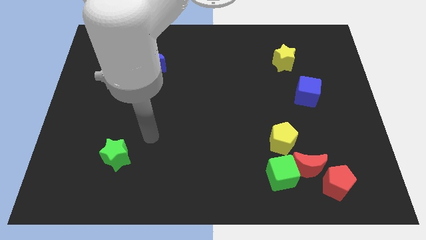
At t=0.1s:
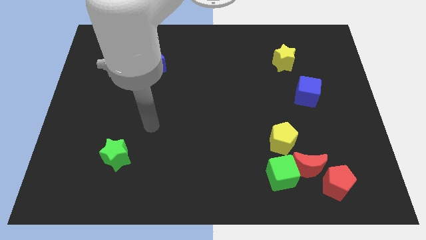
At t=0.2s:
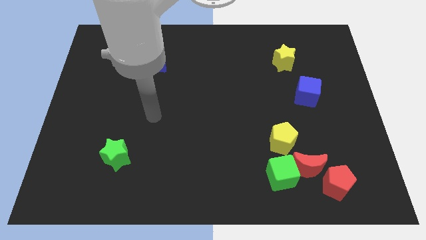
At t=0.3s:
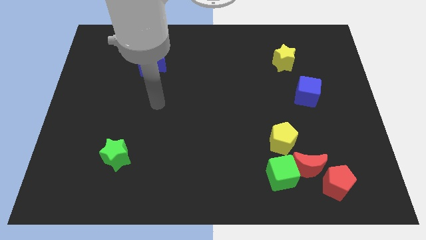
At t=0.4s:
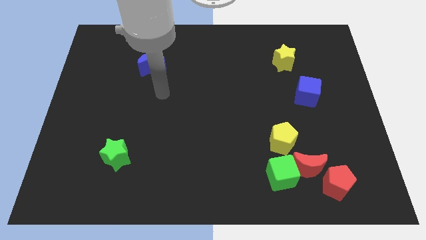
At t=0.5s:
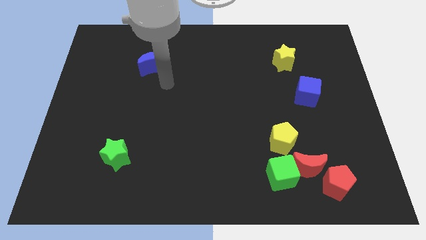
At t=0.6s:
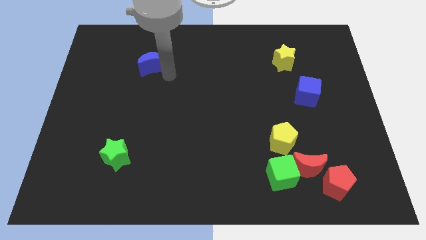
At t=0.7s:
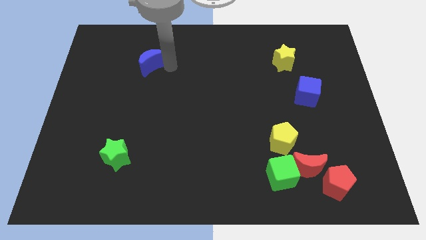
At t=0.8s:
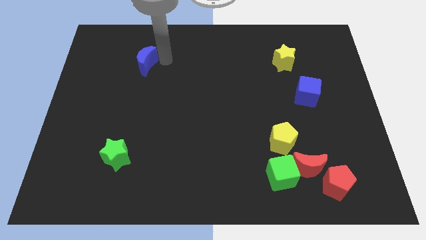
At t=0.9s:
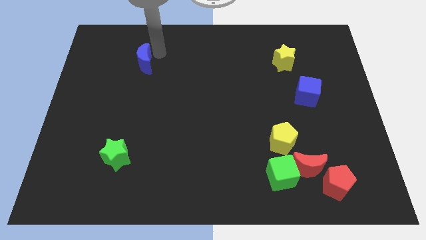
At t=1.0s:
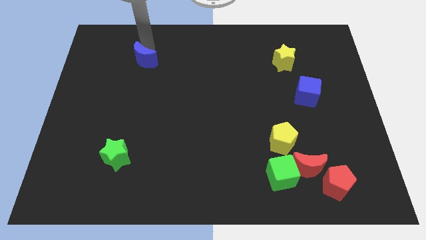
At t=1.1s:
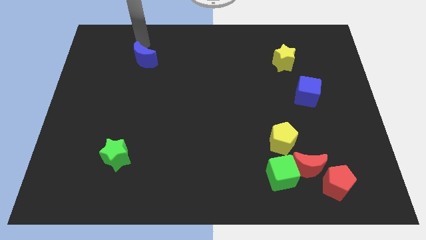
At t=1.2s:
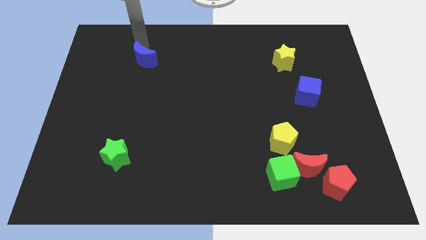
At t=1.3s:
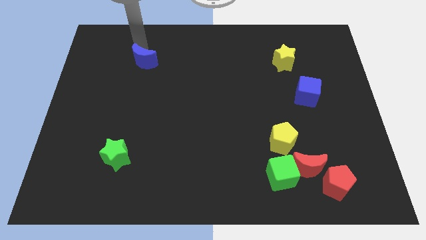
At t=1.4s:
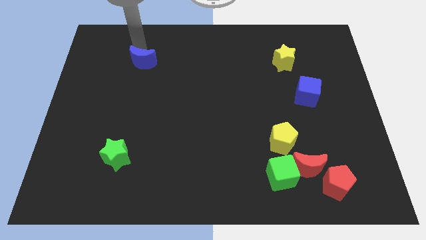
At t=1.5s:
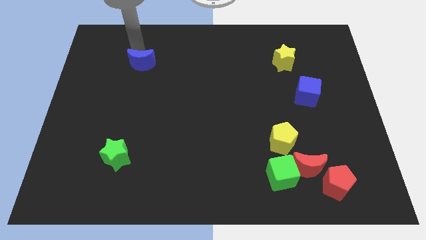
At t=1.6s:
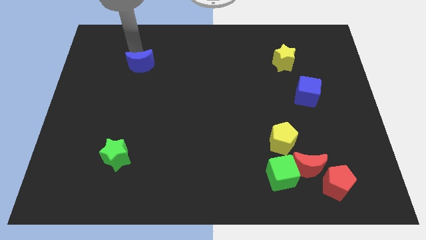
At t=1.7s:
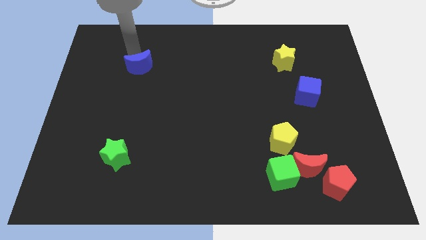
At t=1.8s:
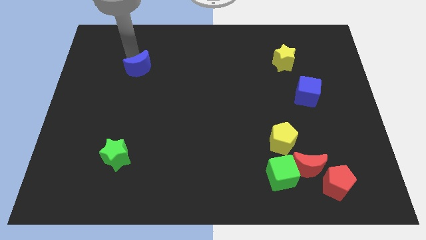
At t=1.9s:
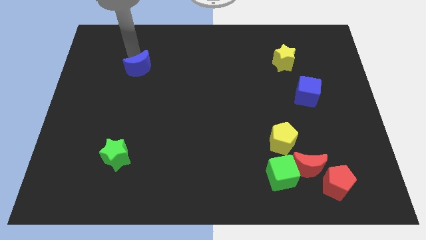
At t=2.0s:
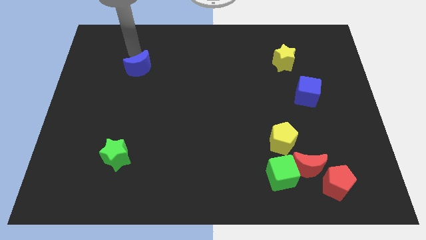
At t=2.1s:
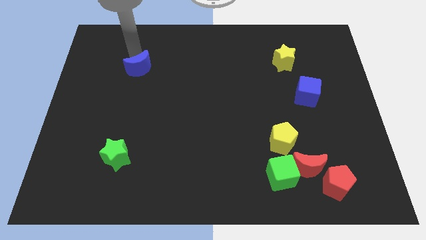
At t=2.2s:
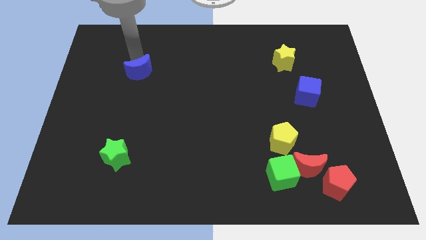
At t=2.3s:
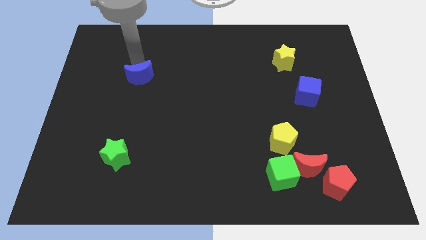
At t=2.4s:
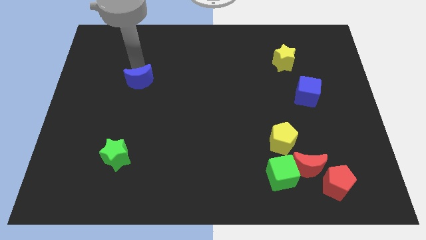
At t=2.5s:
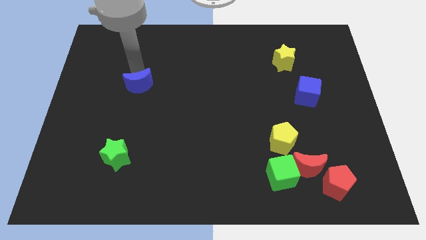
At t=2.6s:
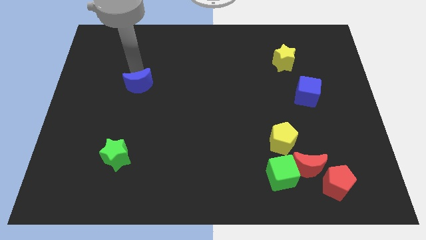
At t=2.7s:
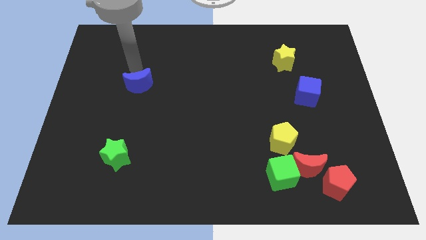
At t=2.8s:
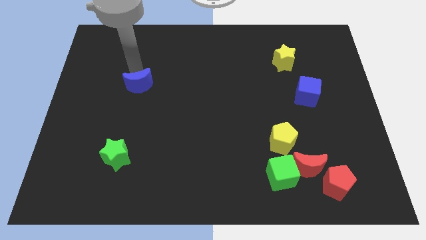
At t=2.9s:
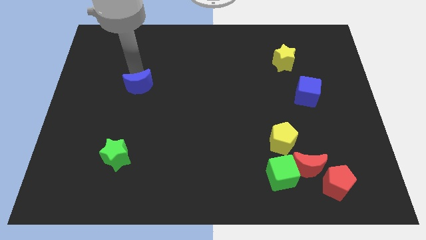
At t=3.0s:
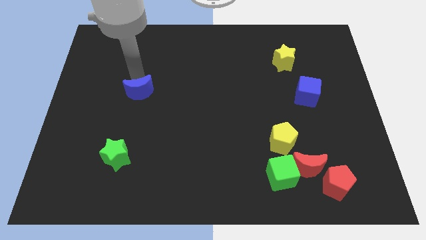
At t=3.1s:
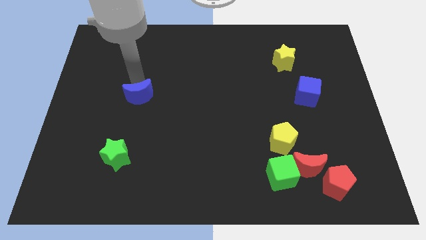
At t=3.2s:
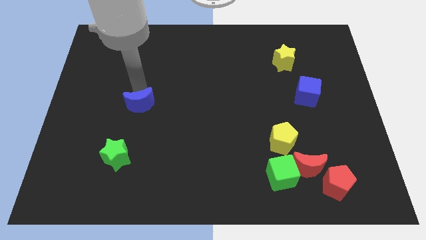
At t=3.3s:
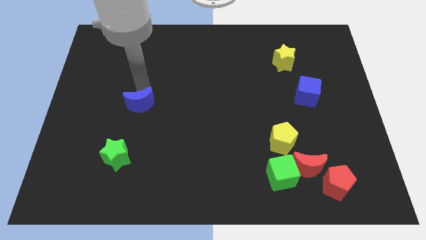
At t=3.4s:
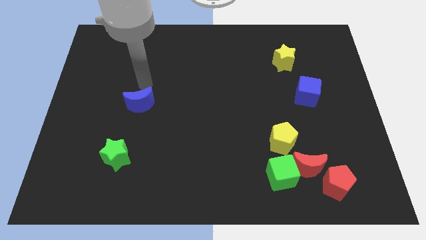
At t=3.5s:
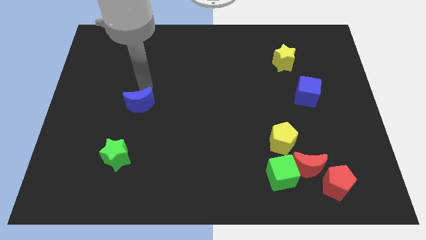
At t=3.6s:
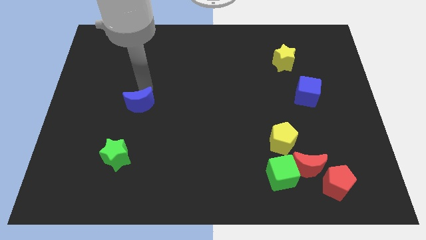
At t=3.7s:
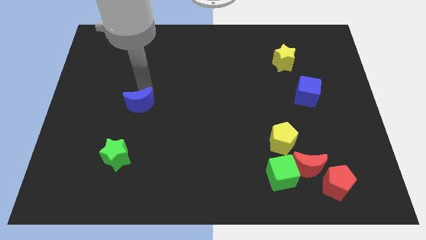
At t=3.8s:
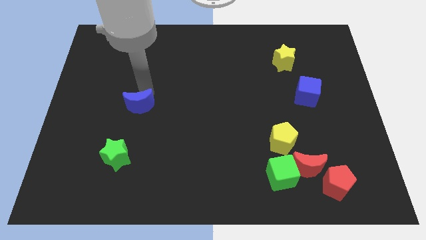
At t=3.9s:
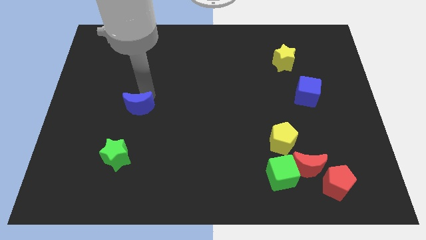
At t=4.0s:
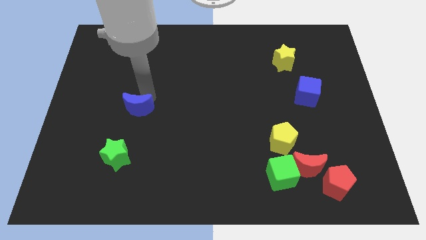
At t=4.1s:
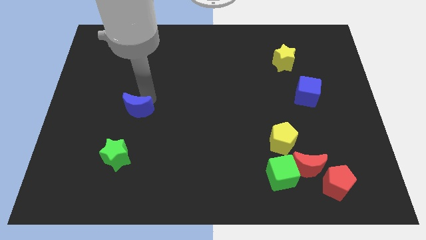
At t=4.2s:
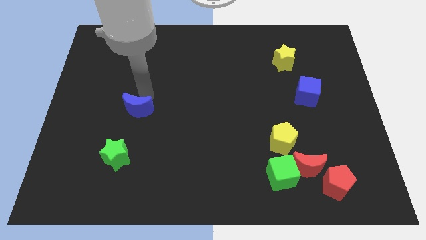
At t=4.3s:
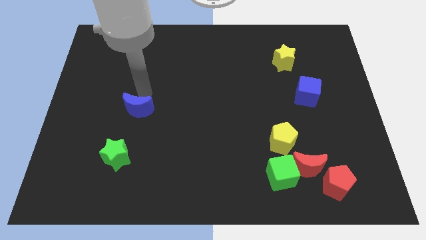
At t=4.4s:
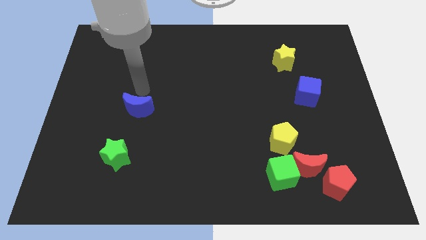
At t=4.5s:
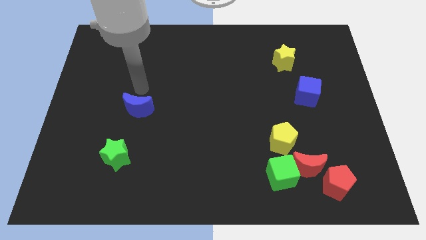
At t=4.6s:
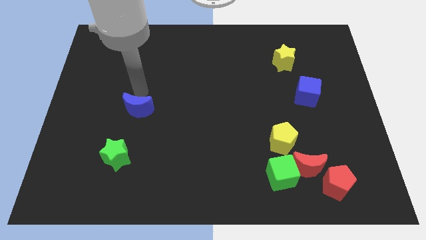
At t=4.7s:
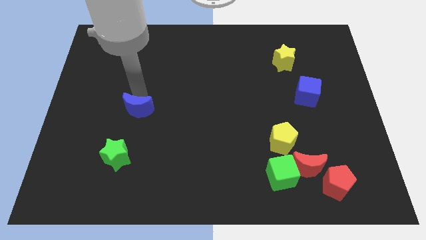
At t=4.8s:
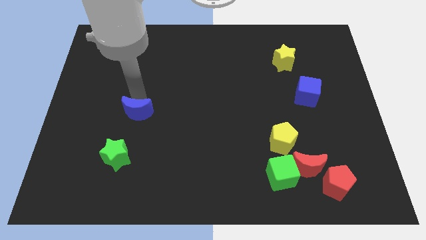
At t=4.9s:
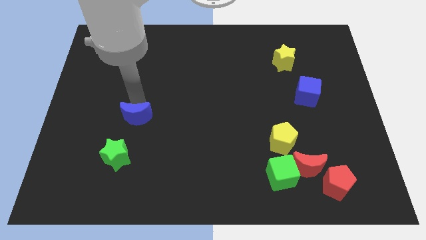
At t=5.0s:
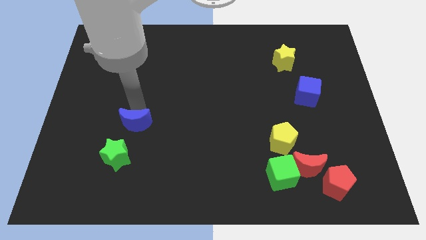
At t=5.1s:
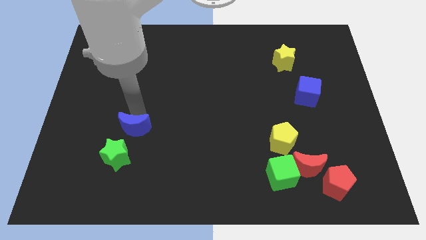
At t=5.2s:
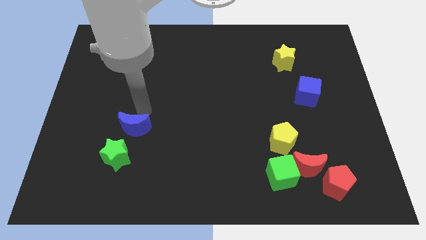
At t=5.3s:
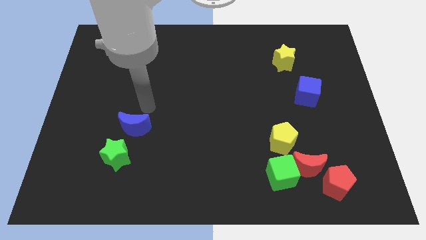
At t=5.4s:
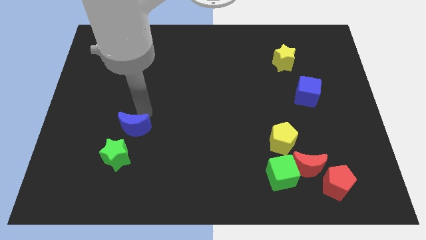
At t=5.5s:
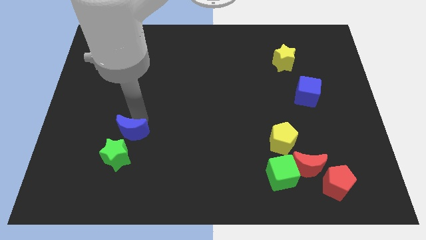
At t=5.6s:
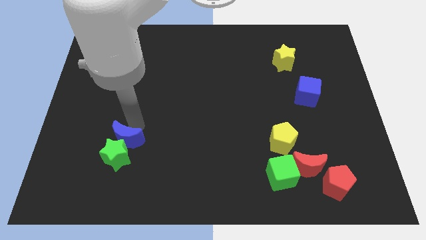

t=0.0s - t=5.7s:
put the blue moon next to the green star

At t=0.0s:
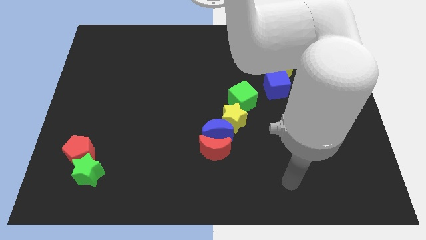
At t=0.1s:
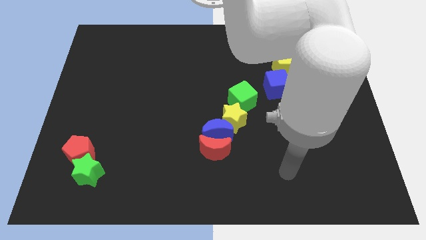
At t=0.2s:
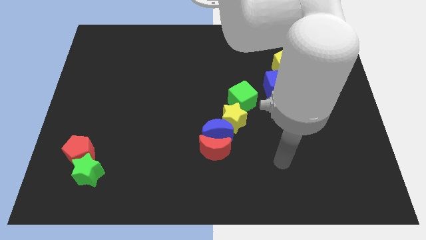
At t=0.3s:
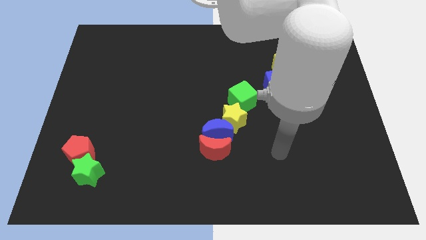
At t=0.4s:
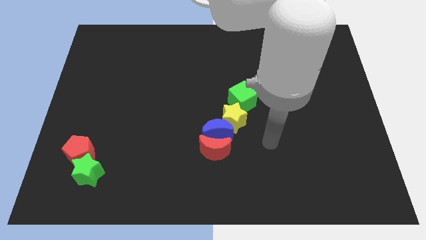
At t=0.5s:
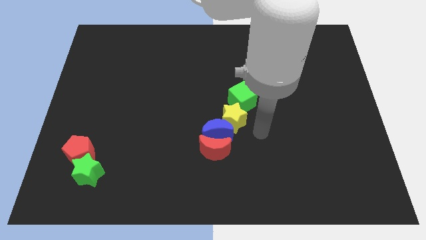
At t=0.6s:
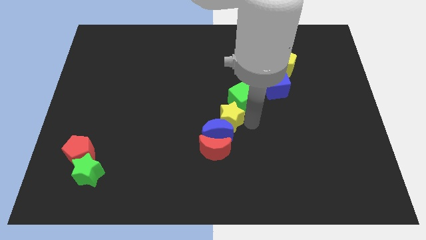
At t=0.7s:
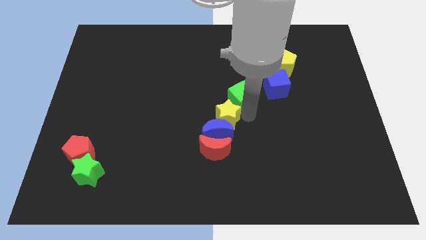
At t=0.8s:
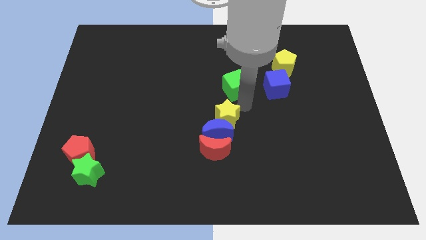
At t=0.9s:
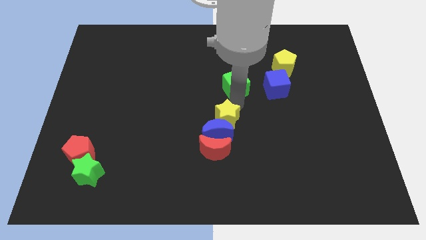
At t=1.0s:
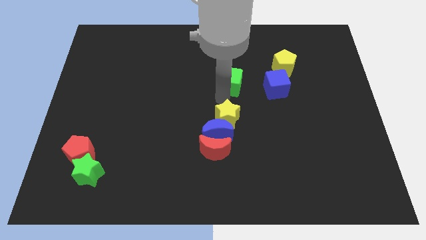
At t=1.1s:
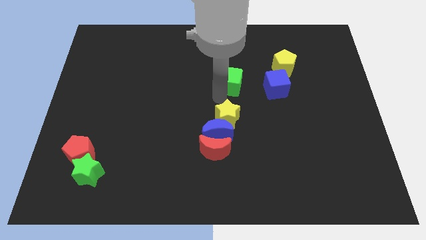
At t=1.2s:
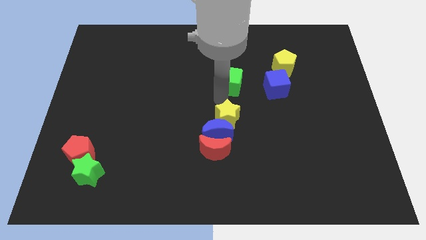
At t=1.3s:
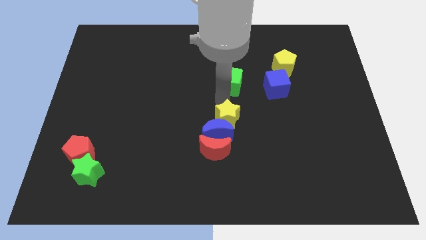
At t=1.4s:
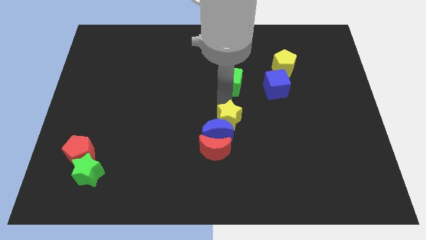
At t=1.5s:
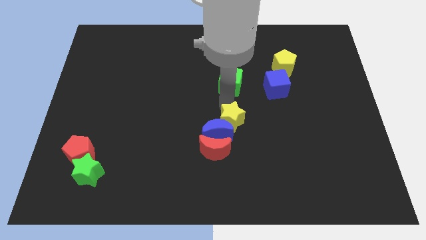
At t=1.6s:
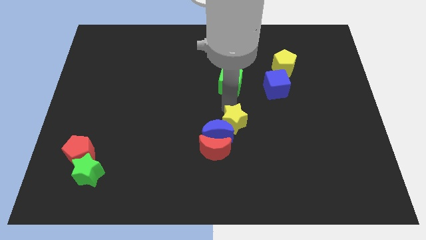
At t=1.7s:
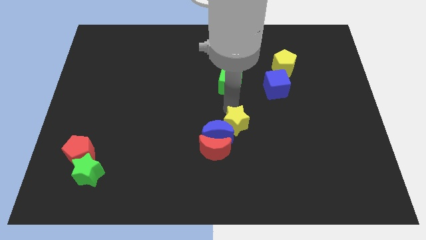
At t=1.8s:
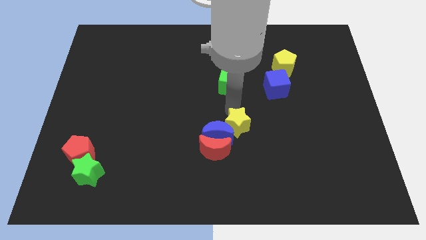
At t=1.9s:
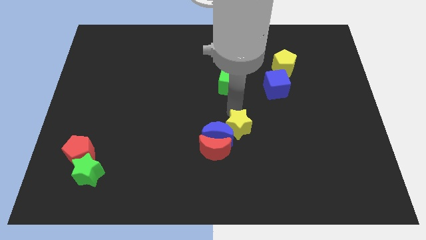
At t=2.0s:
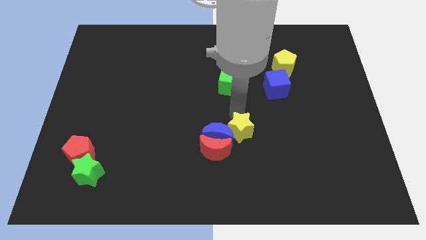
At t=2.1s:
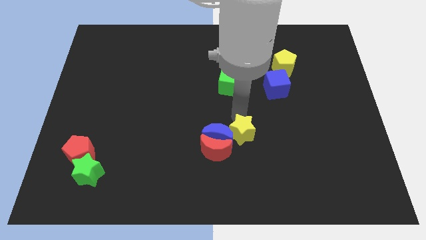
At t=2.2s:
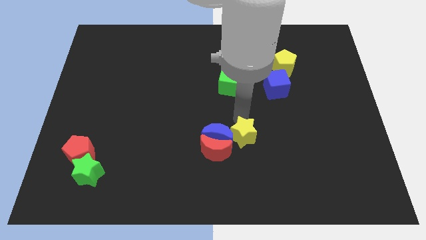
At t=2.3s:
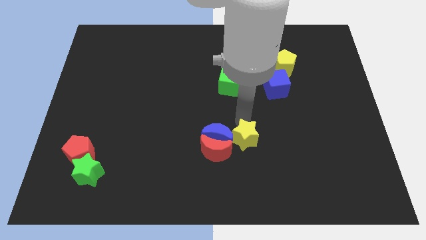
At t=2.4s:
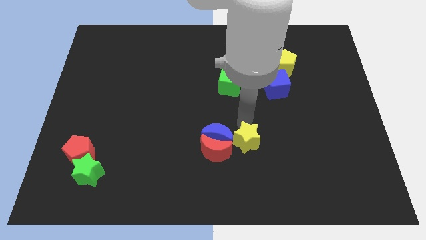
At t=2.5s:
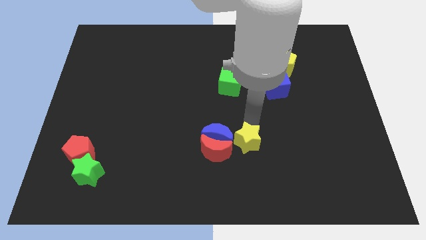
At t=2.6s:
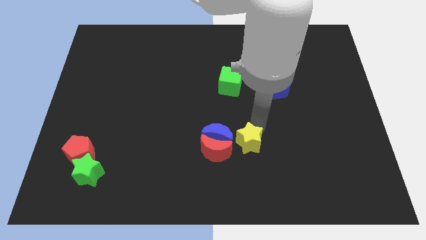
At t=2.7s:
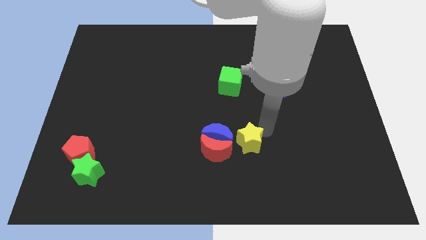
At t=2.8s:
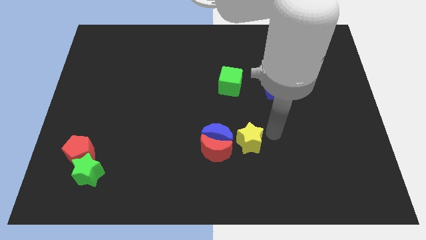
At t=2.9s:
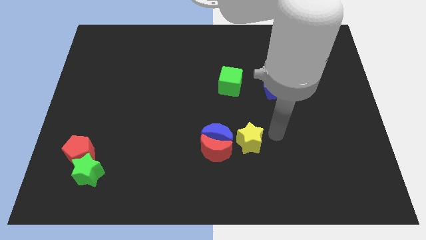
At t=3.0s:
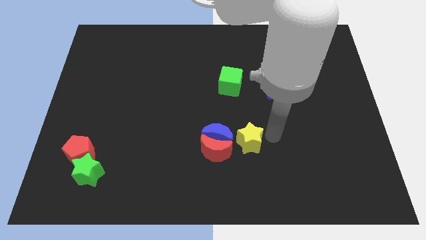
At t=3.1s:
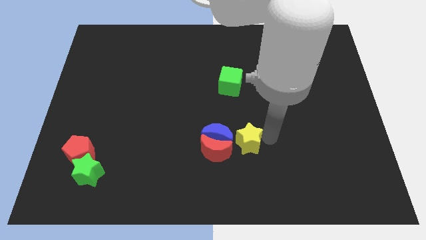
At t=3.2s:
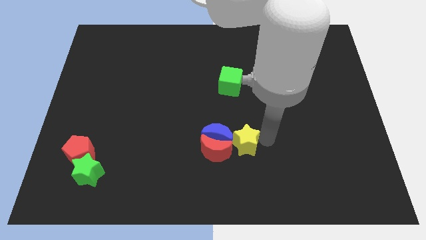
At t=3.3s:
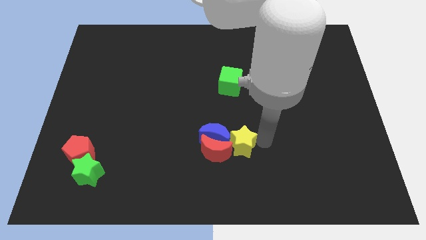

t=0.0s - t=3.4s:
push the yellow star to the red moon
